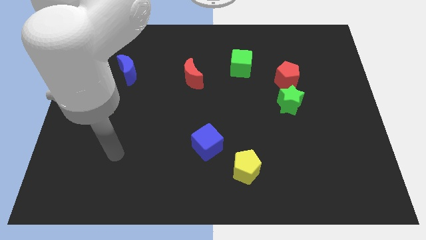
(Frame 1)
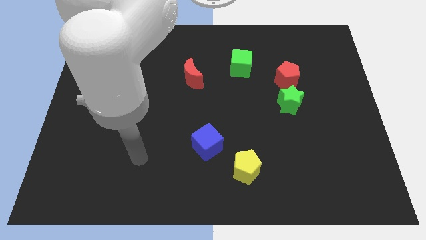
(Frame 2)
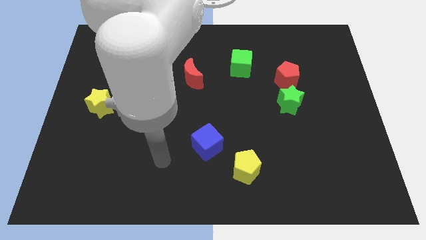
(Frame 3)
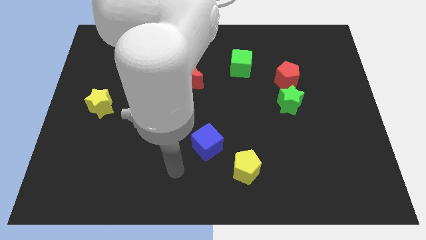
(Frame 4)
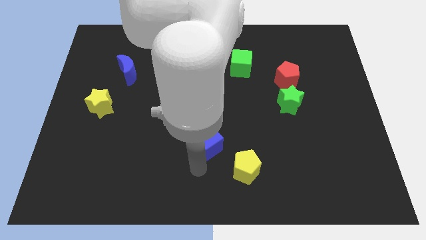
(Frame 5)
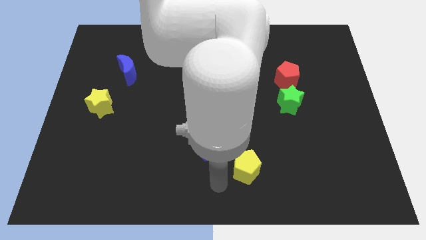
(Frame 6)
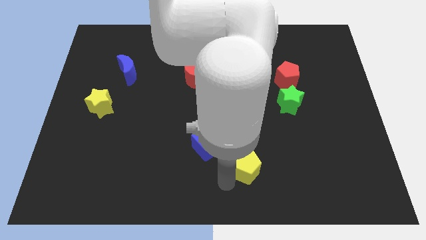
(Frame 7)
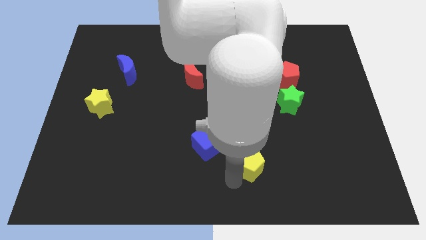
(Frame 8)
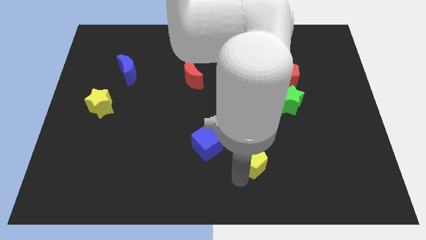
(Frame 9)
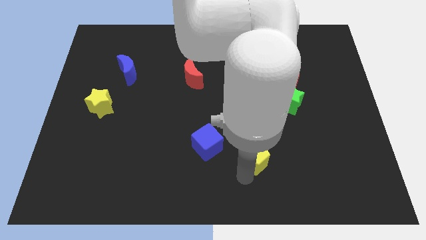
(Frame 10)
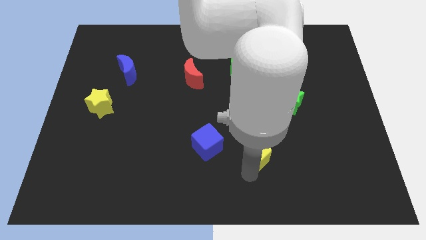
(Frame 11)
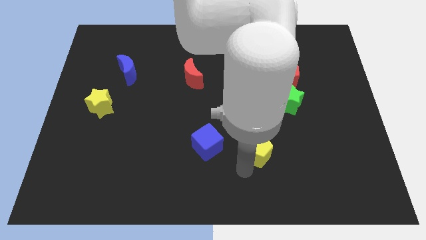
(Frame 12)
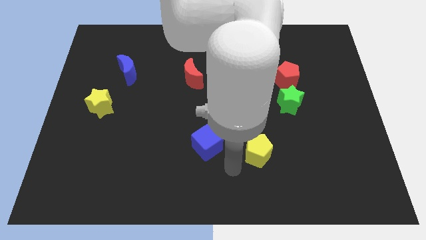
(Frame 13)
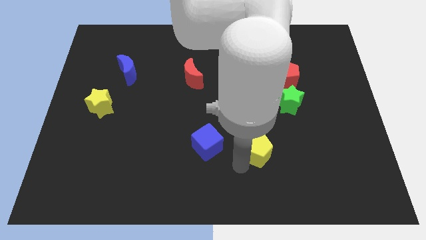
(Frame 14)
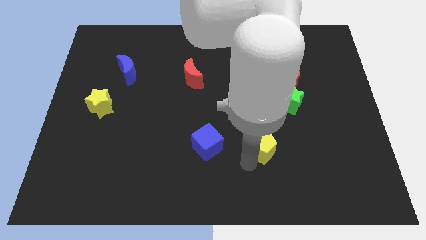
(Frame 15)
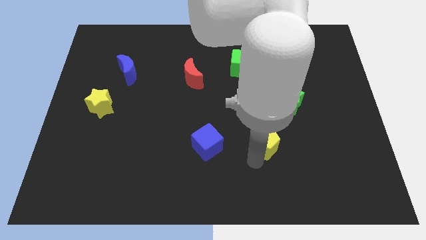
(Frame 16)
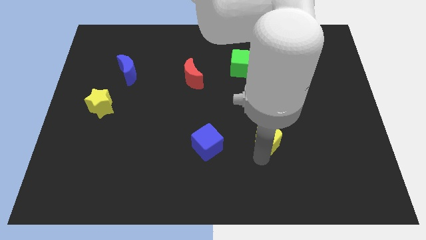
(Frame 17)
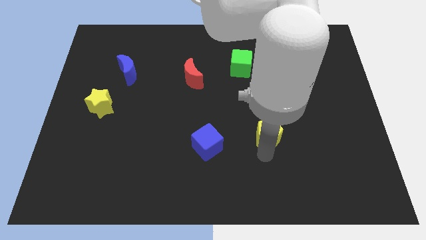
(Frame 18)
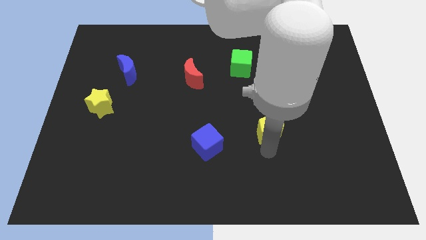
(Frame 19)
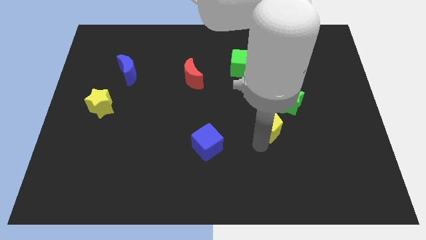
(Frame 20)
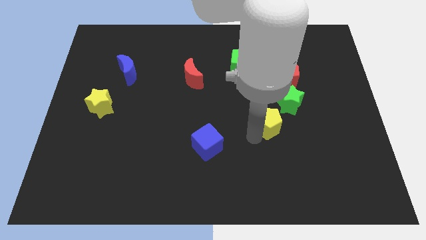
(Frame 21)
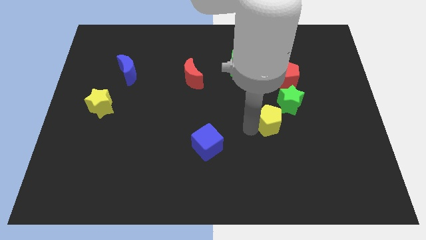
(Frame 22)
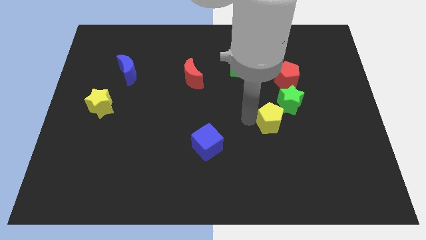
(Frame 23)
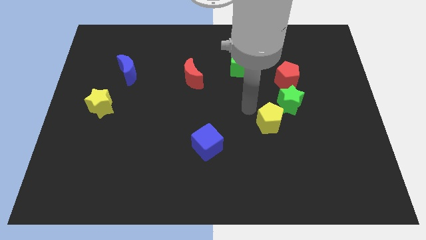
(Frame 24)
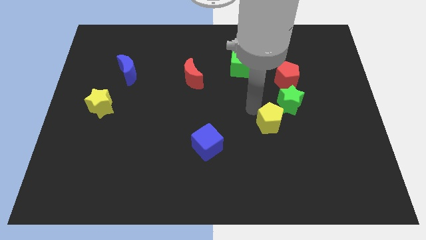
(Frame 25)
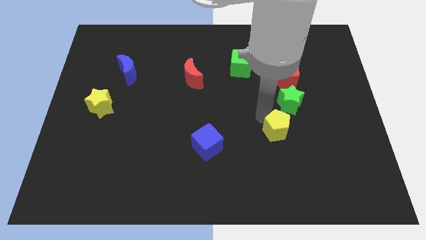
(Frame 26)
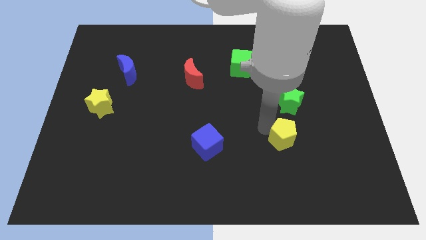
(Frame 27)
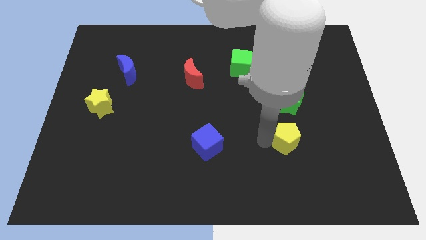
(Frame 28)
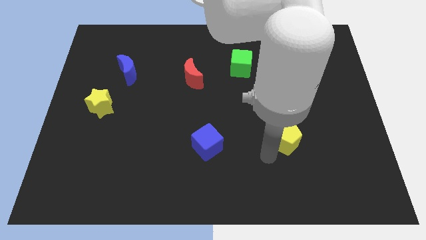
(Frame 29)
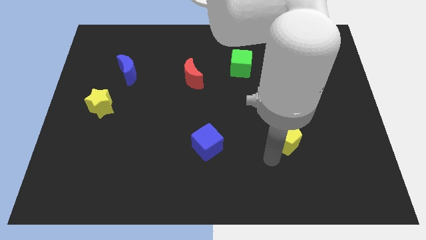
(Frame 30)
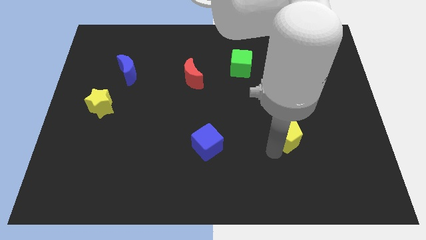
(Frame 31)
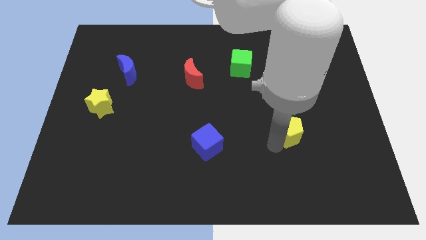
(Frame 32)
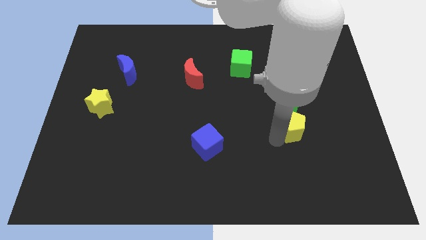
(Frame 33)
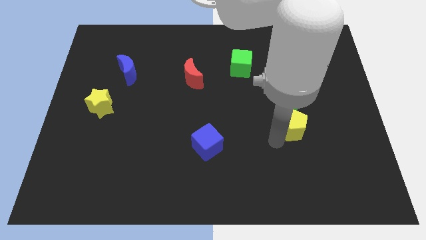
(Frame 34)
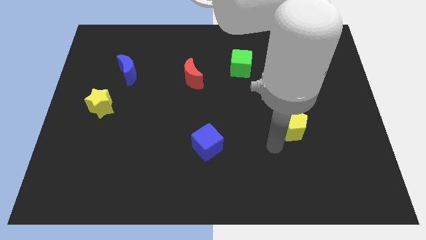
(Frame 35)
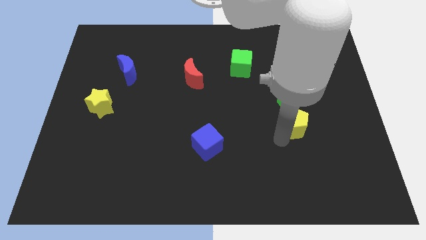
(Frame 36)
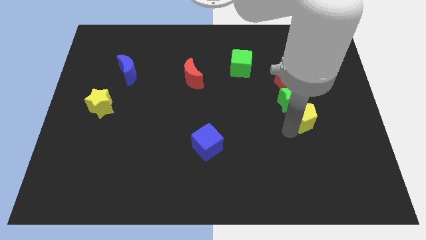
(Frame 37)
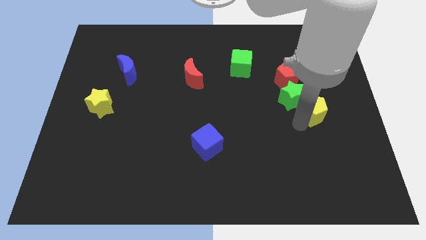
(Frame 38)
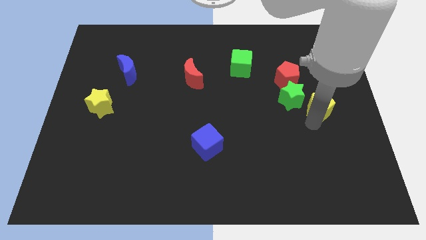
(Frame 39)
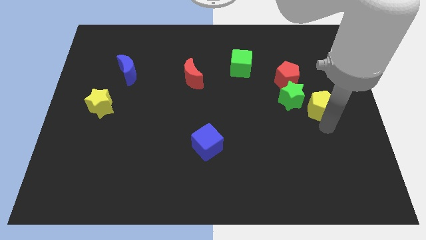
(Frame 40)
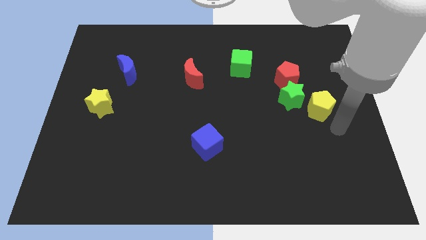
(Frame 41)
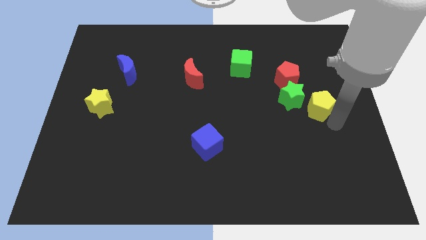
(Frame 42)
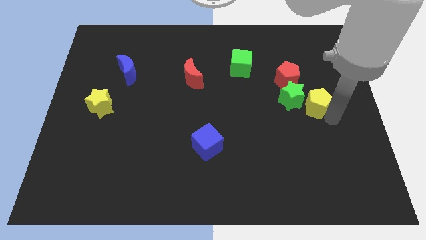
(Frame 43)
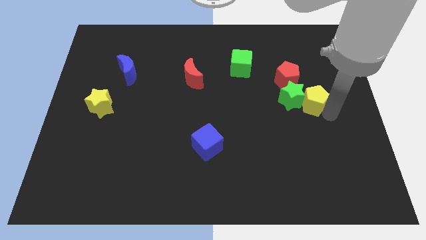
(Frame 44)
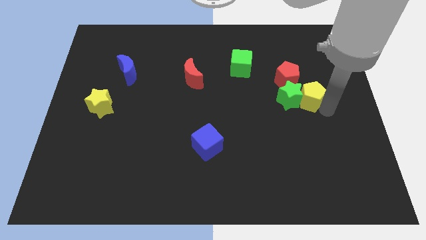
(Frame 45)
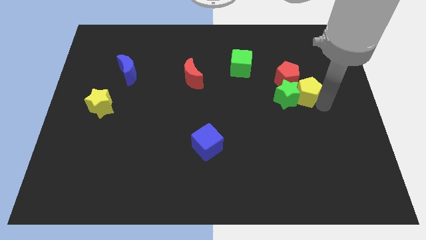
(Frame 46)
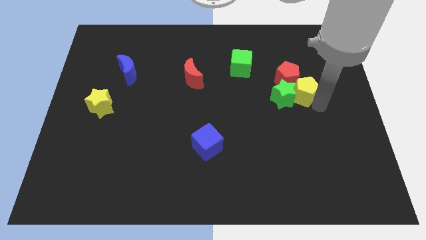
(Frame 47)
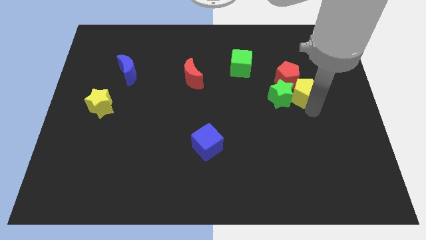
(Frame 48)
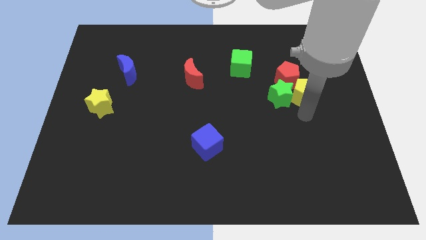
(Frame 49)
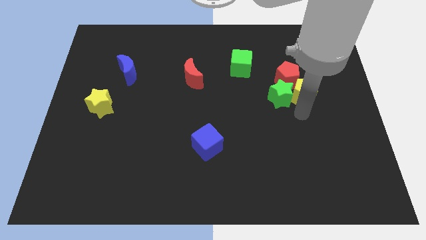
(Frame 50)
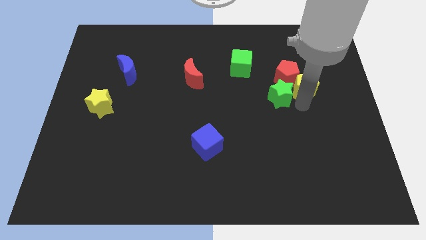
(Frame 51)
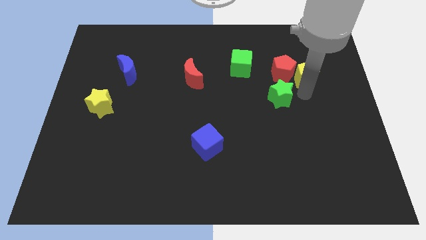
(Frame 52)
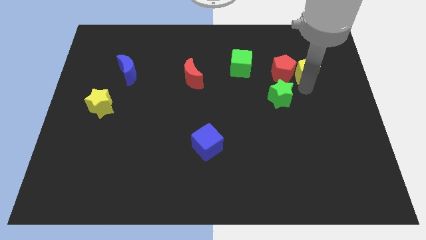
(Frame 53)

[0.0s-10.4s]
put the yellow pentagon diagonally up and to the right of the red pentagon

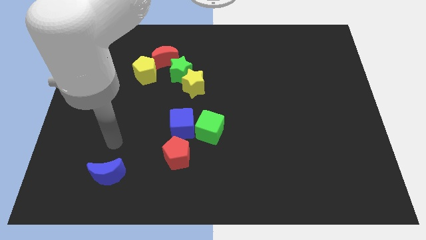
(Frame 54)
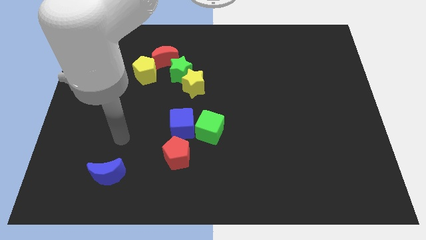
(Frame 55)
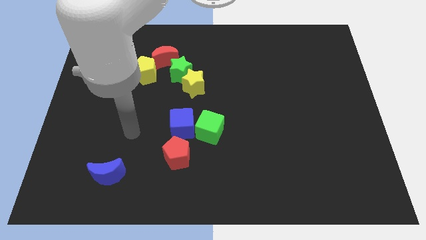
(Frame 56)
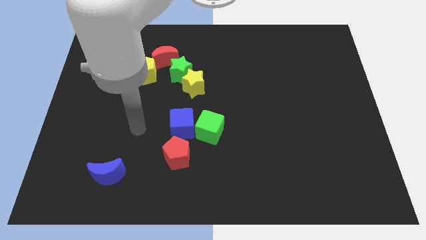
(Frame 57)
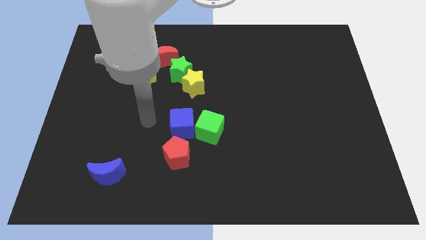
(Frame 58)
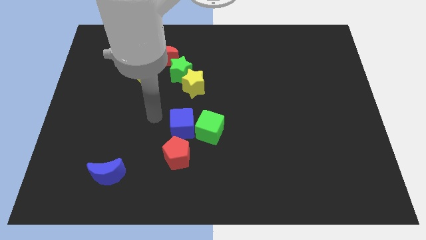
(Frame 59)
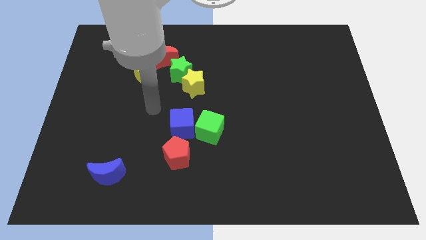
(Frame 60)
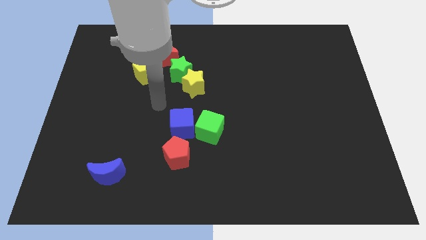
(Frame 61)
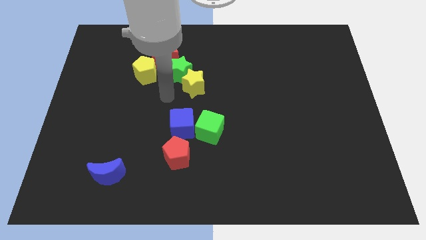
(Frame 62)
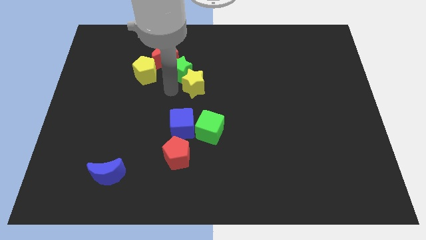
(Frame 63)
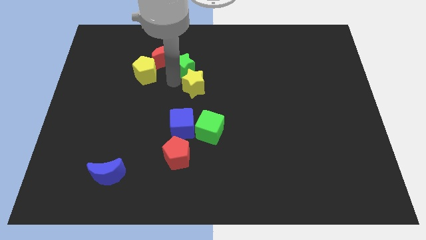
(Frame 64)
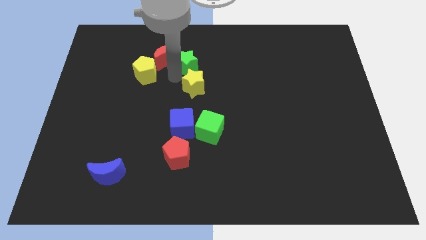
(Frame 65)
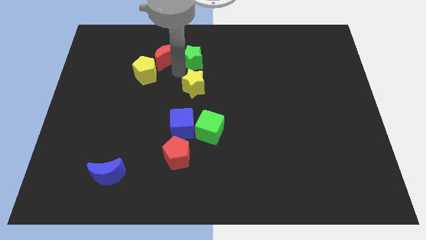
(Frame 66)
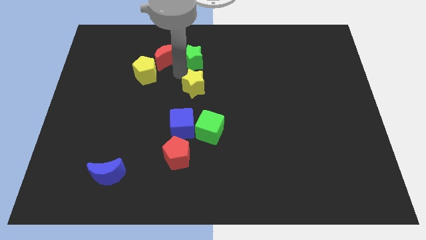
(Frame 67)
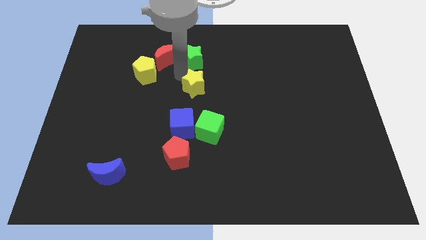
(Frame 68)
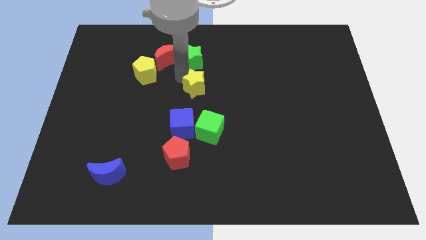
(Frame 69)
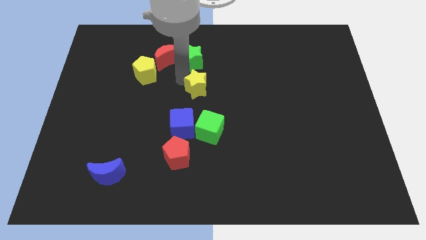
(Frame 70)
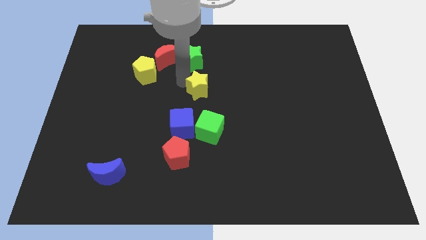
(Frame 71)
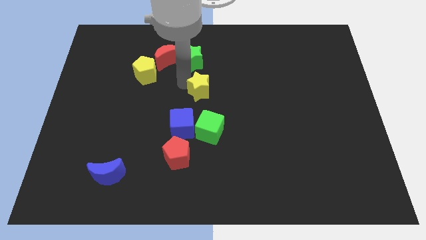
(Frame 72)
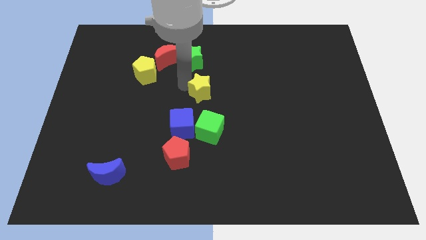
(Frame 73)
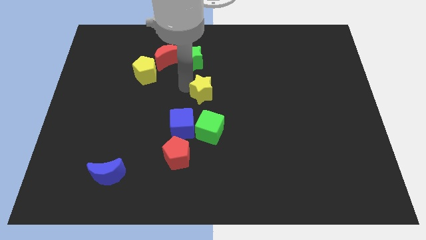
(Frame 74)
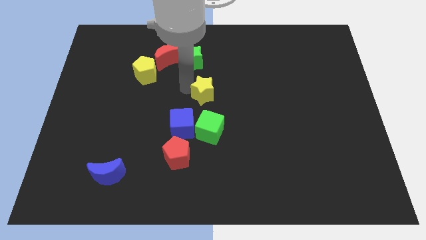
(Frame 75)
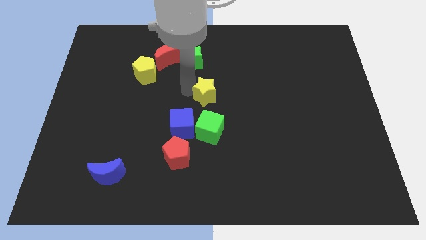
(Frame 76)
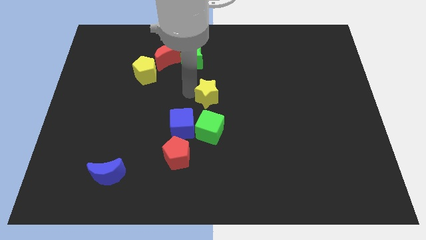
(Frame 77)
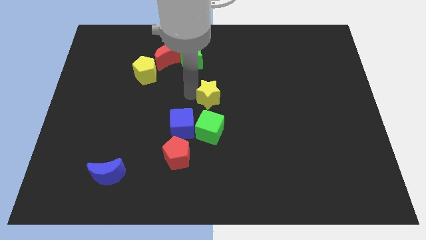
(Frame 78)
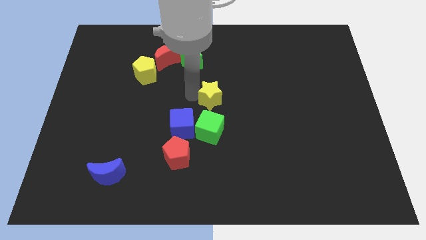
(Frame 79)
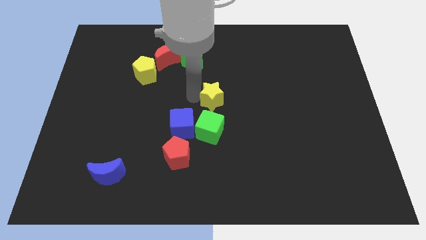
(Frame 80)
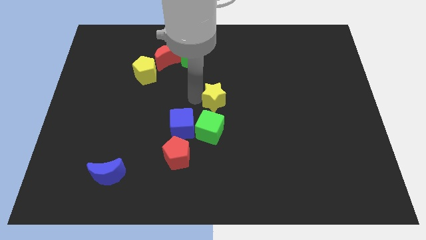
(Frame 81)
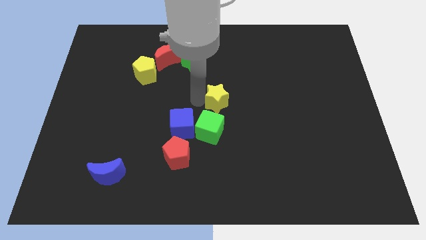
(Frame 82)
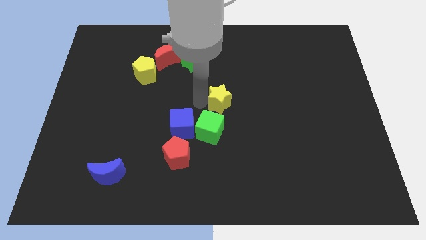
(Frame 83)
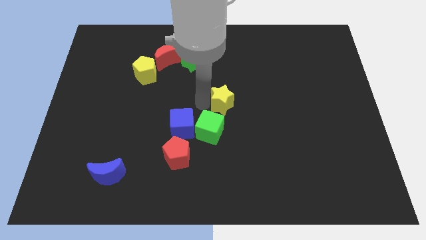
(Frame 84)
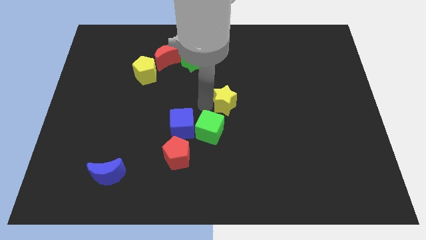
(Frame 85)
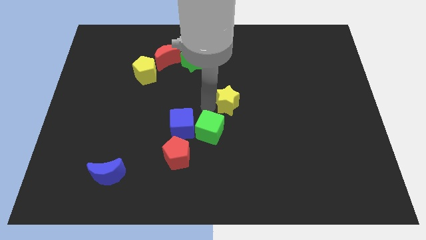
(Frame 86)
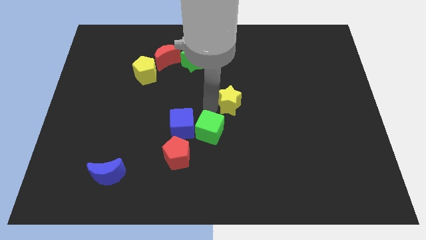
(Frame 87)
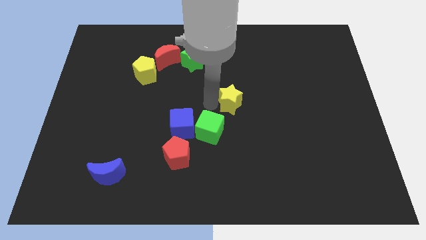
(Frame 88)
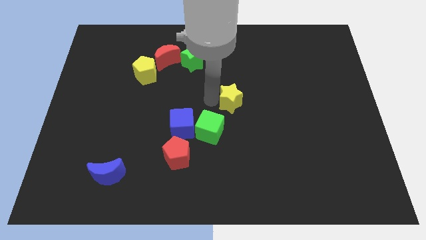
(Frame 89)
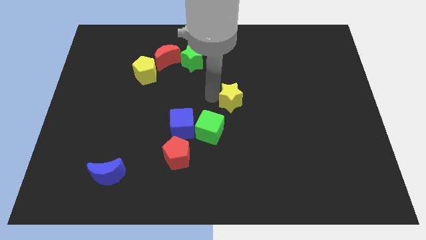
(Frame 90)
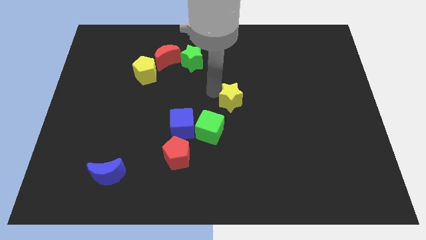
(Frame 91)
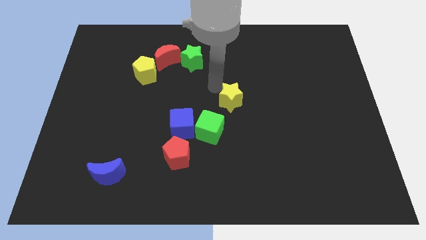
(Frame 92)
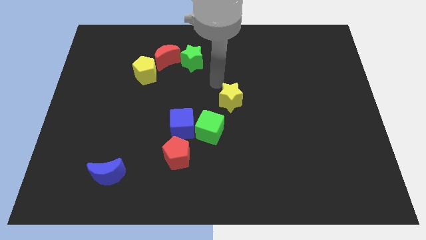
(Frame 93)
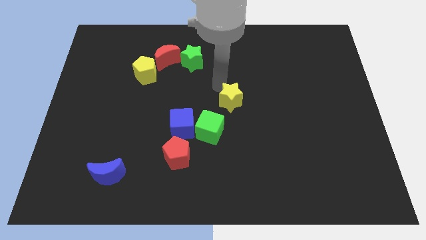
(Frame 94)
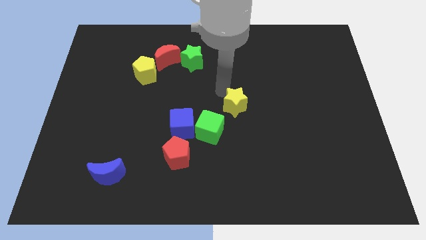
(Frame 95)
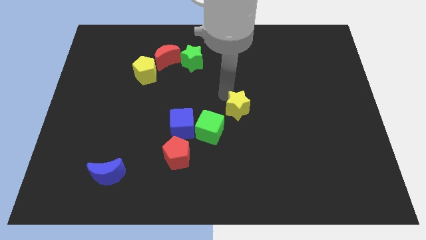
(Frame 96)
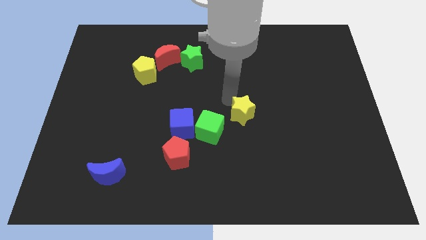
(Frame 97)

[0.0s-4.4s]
slide the yellow star to the right side of the green cube
